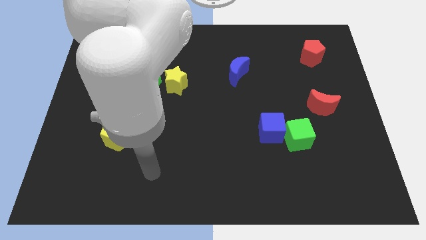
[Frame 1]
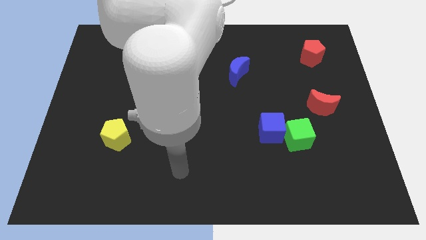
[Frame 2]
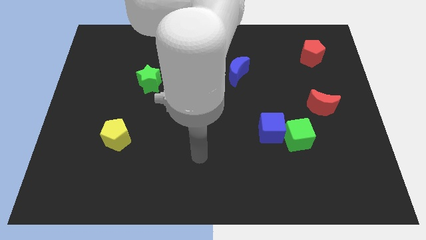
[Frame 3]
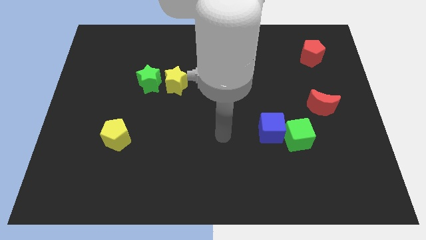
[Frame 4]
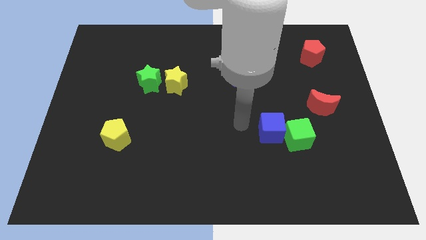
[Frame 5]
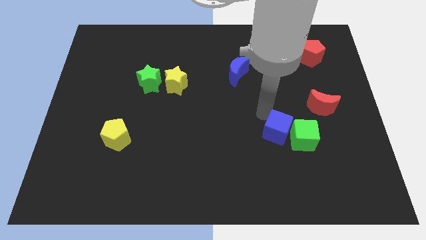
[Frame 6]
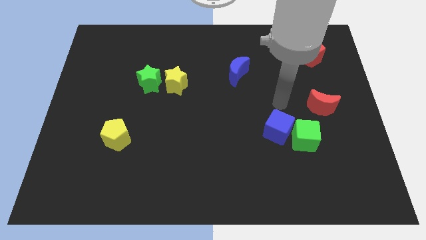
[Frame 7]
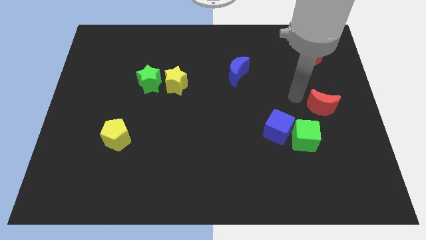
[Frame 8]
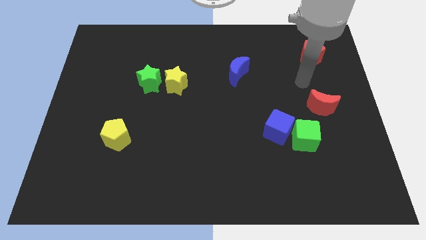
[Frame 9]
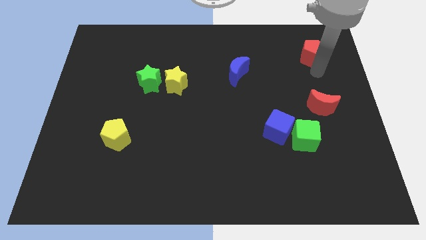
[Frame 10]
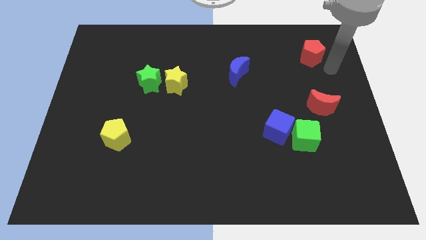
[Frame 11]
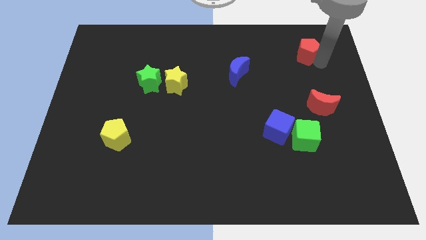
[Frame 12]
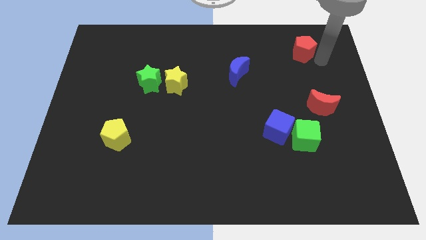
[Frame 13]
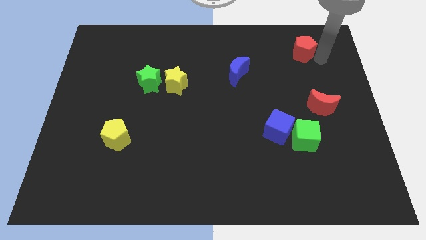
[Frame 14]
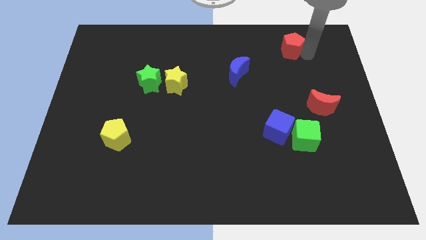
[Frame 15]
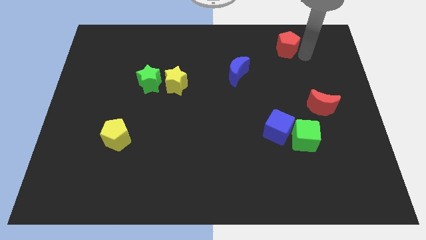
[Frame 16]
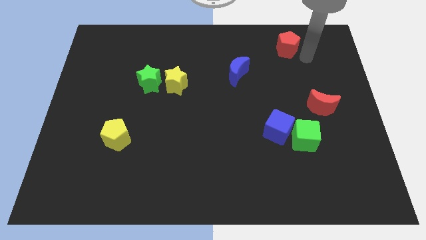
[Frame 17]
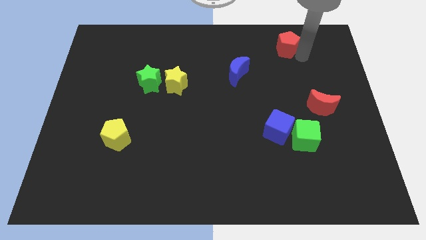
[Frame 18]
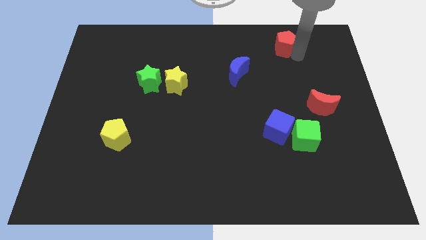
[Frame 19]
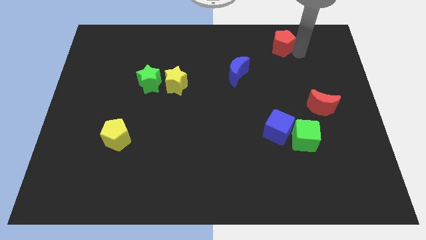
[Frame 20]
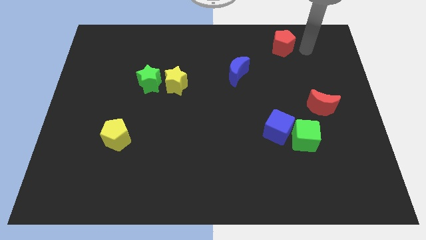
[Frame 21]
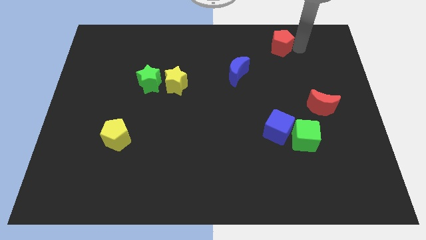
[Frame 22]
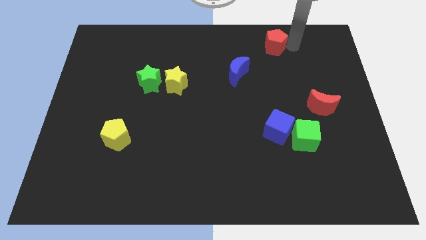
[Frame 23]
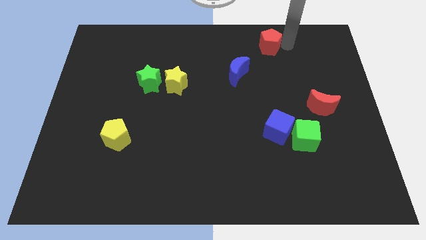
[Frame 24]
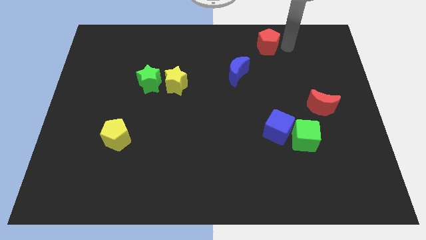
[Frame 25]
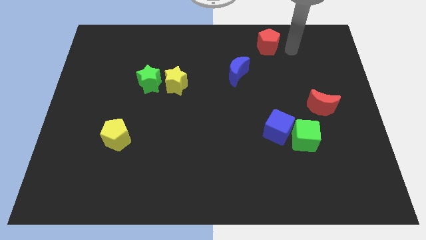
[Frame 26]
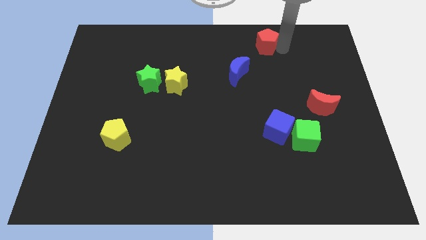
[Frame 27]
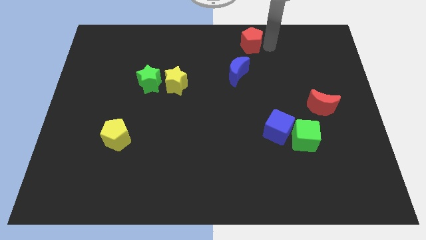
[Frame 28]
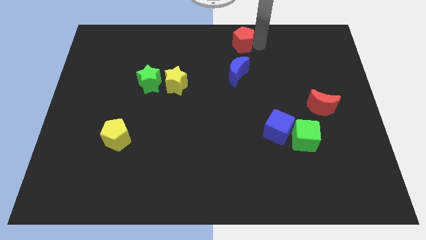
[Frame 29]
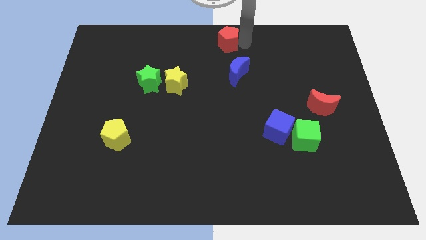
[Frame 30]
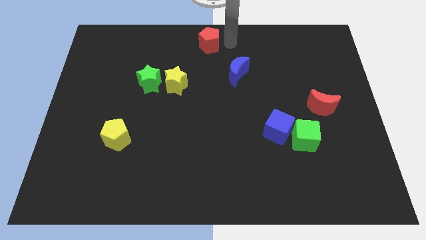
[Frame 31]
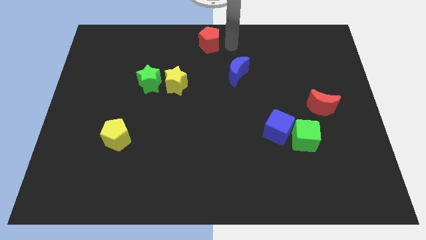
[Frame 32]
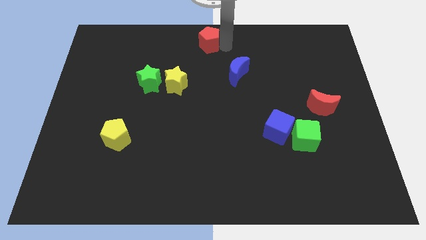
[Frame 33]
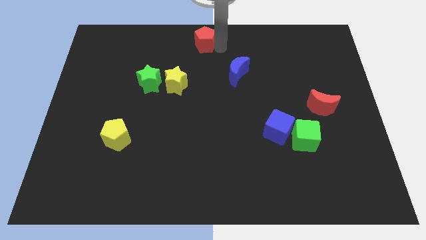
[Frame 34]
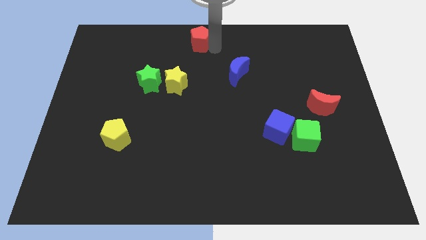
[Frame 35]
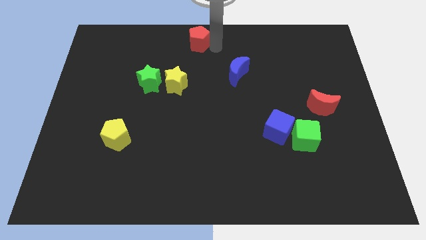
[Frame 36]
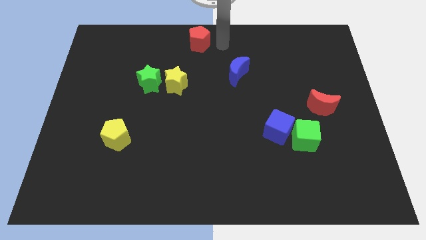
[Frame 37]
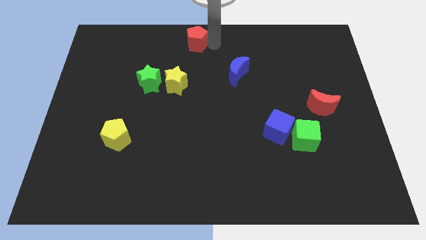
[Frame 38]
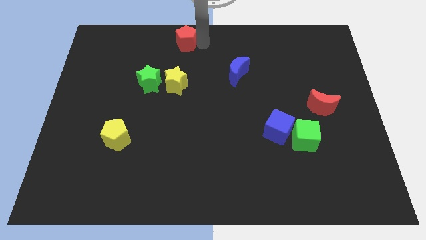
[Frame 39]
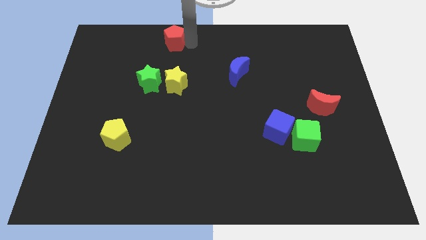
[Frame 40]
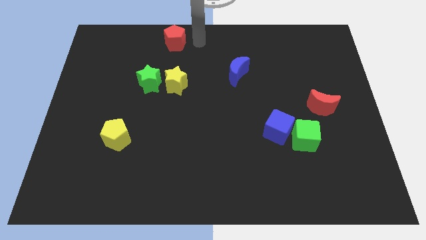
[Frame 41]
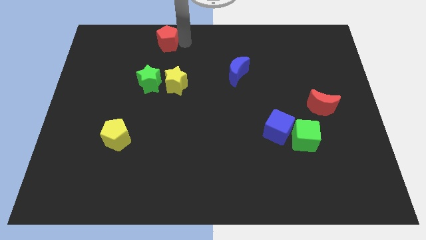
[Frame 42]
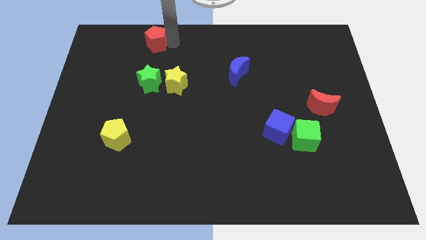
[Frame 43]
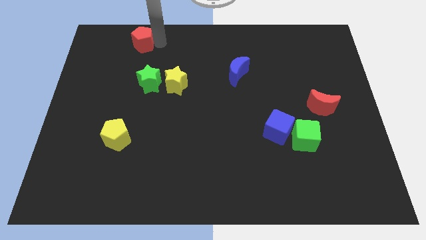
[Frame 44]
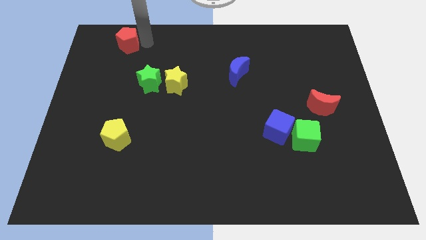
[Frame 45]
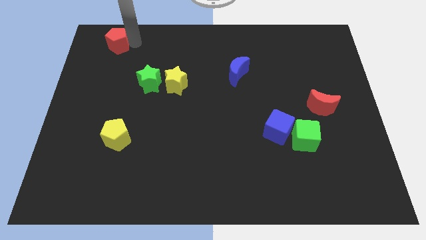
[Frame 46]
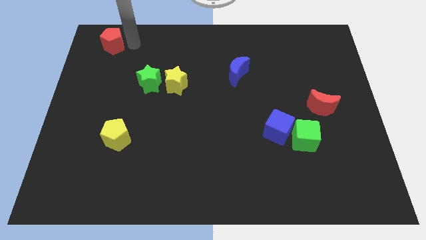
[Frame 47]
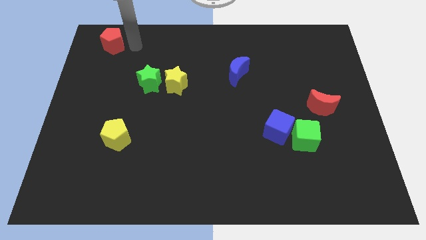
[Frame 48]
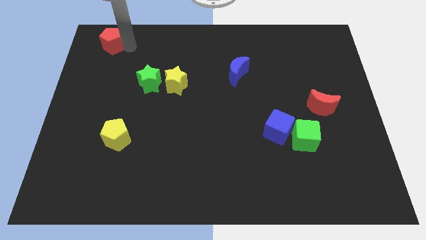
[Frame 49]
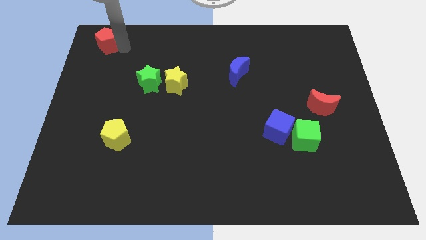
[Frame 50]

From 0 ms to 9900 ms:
move the red pentagon to the top left of the board

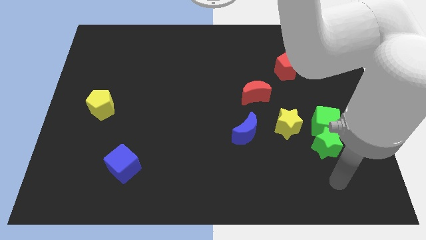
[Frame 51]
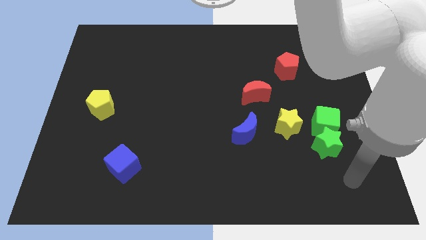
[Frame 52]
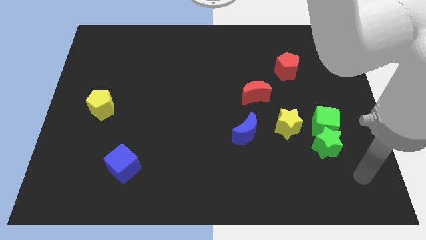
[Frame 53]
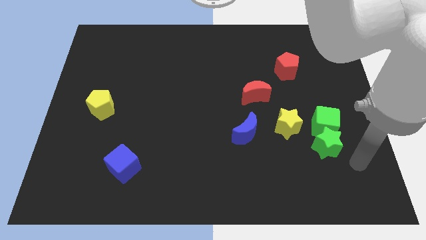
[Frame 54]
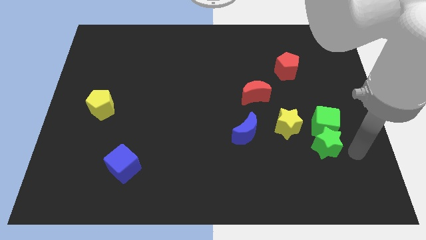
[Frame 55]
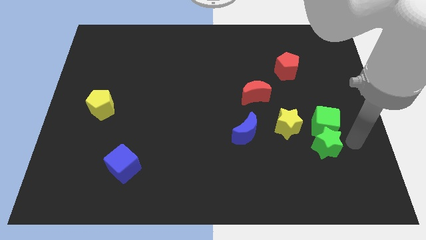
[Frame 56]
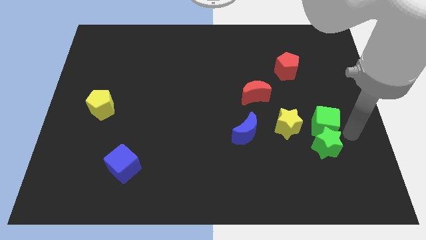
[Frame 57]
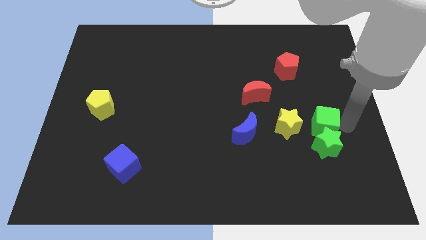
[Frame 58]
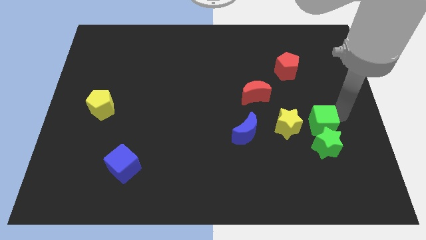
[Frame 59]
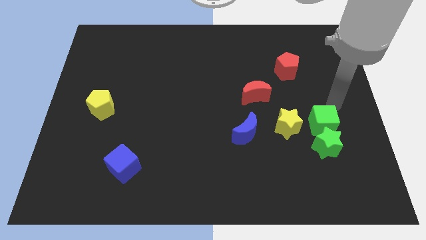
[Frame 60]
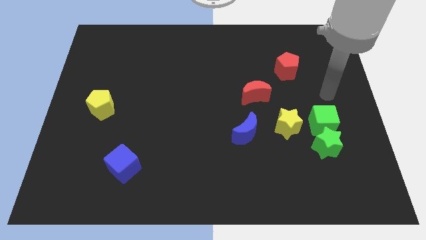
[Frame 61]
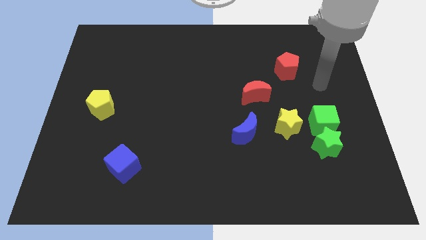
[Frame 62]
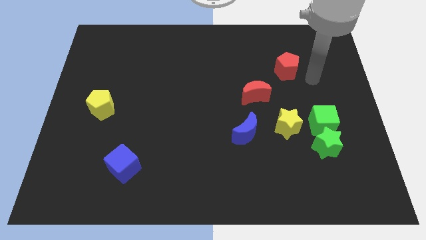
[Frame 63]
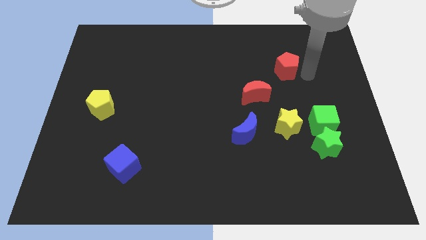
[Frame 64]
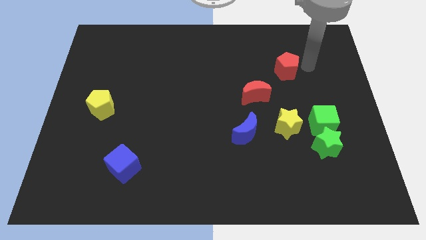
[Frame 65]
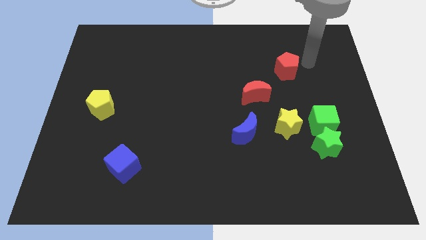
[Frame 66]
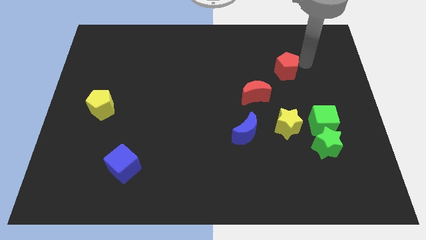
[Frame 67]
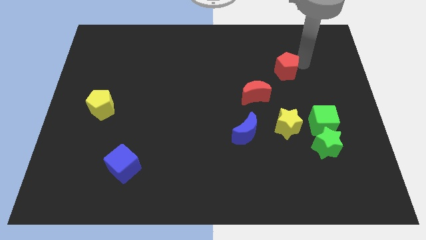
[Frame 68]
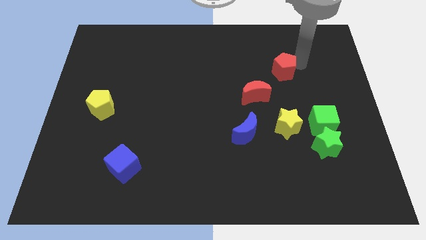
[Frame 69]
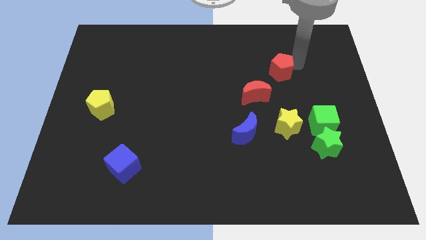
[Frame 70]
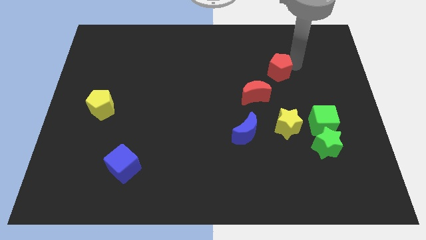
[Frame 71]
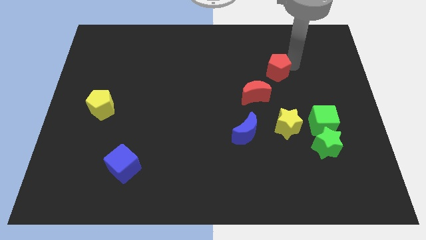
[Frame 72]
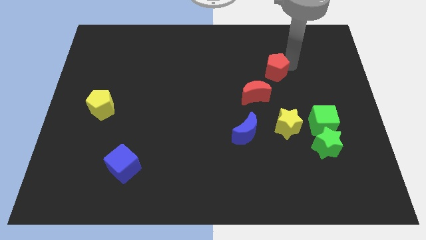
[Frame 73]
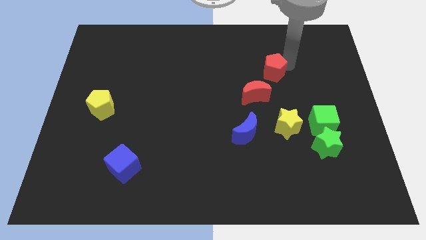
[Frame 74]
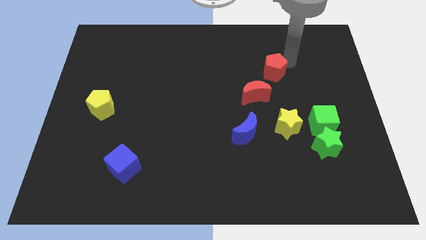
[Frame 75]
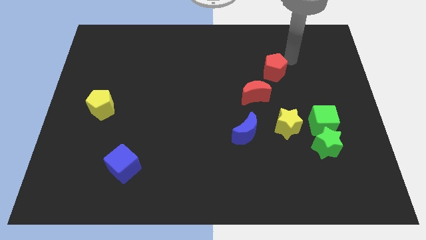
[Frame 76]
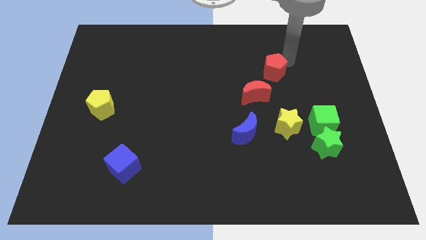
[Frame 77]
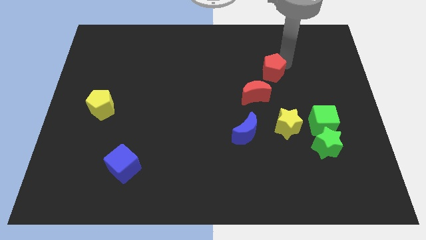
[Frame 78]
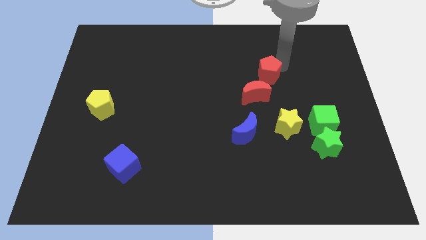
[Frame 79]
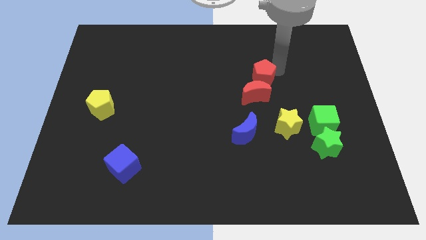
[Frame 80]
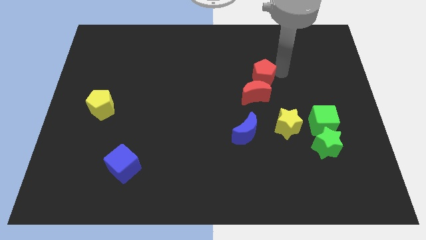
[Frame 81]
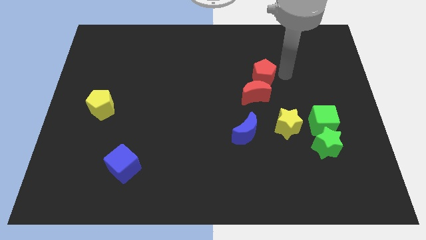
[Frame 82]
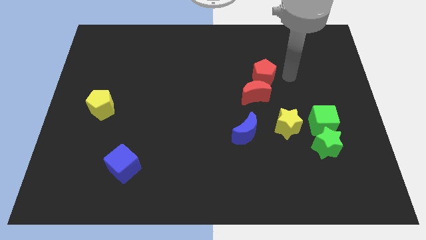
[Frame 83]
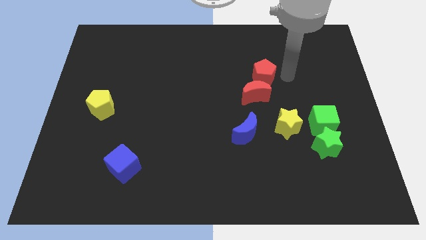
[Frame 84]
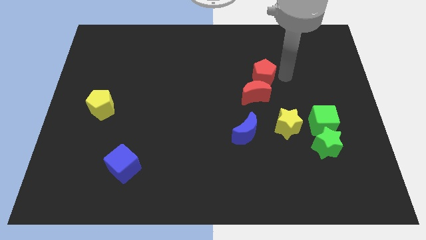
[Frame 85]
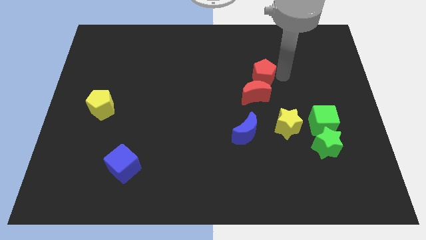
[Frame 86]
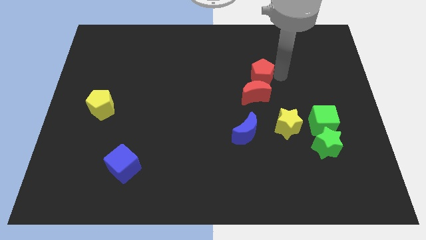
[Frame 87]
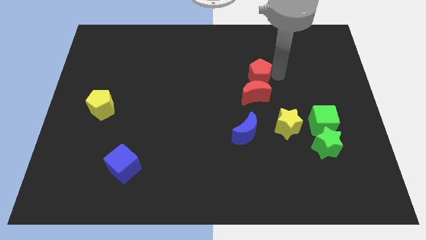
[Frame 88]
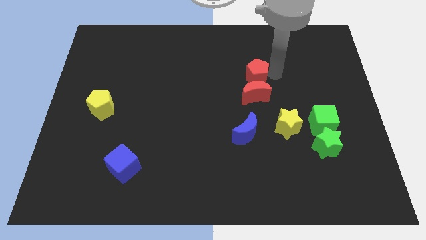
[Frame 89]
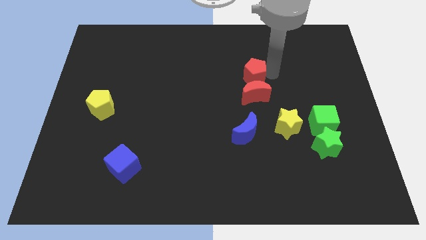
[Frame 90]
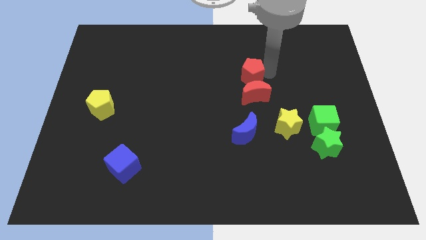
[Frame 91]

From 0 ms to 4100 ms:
move the red pentagon to the middle of the board
